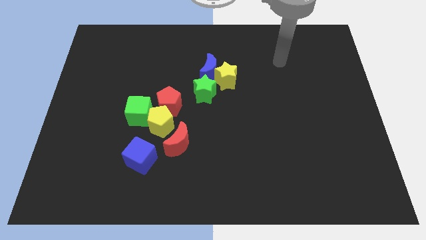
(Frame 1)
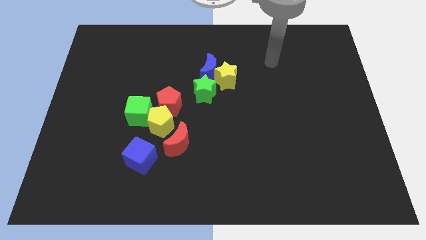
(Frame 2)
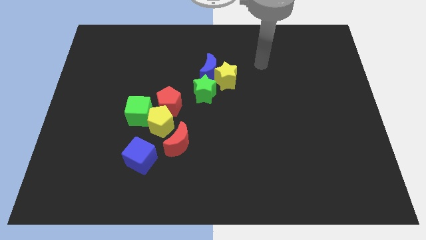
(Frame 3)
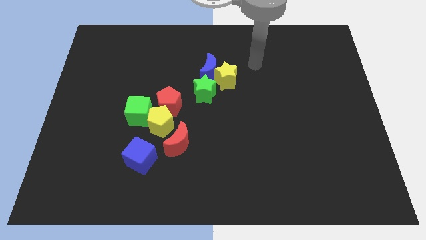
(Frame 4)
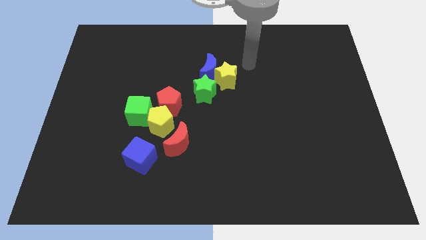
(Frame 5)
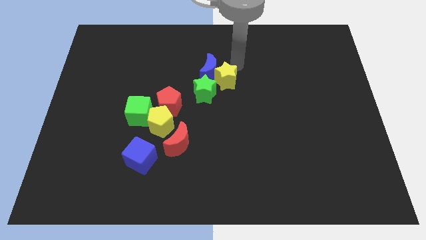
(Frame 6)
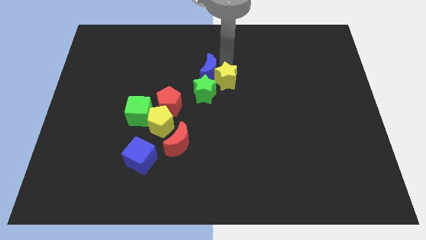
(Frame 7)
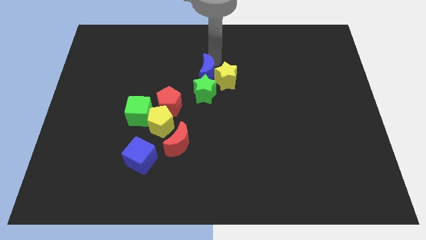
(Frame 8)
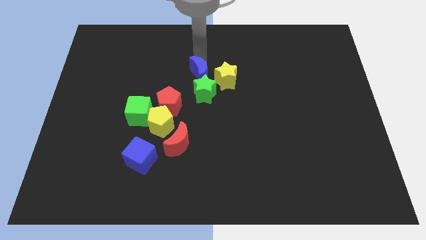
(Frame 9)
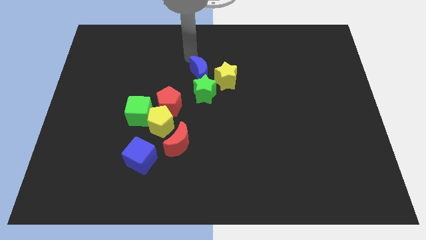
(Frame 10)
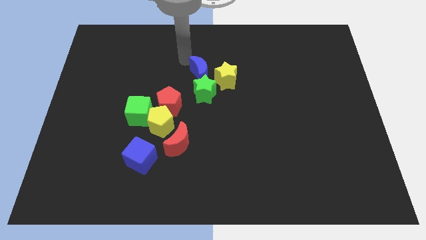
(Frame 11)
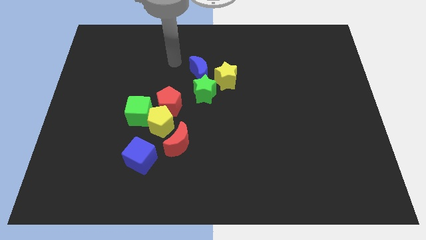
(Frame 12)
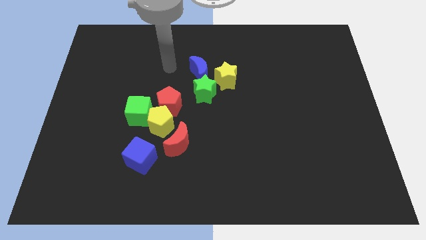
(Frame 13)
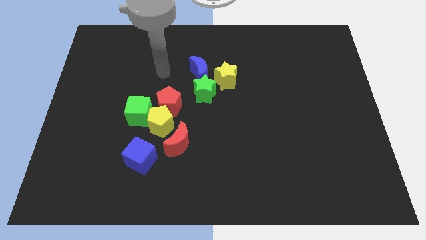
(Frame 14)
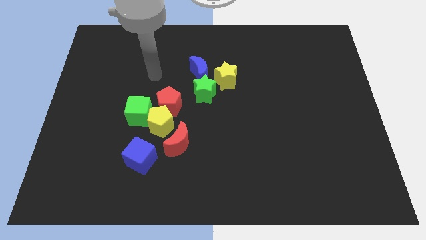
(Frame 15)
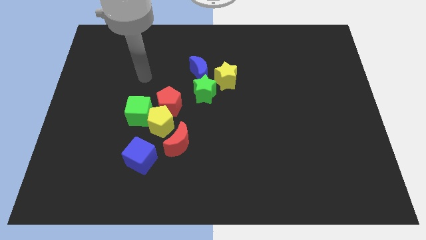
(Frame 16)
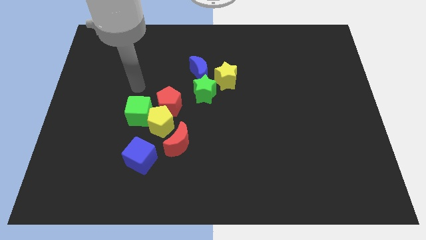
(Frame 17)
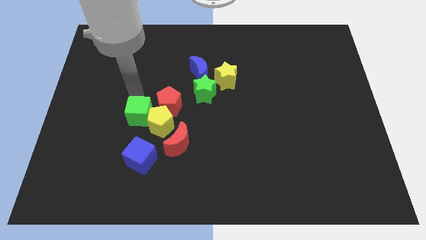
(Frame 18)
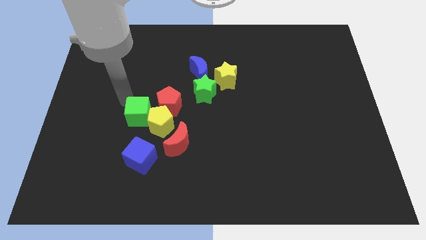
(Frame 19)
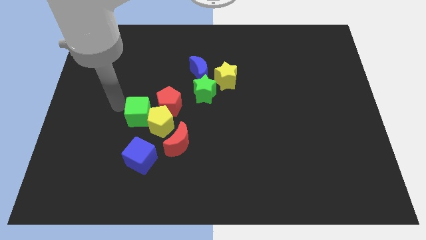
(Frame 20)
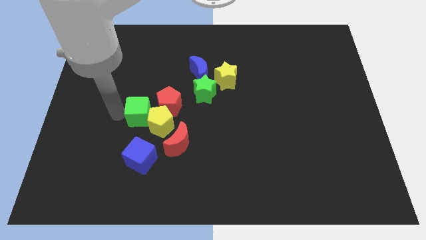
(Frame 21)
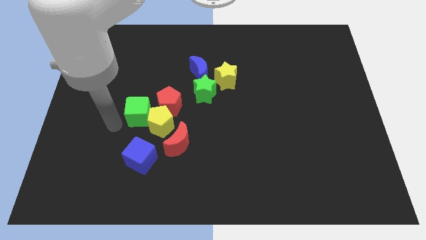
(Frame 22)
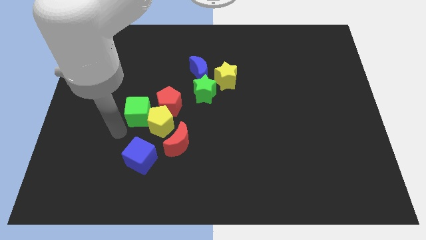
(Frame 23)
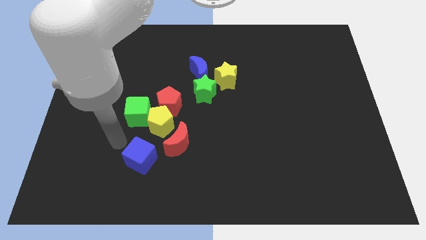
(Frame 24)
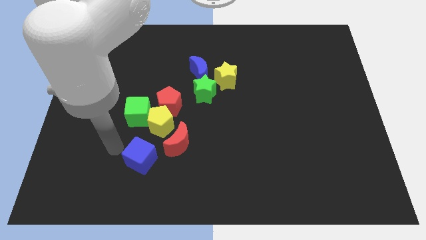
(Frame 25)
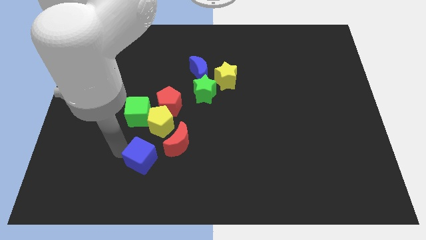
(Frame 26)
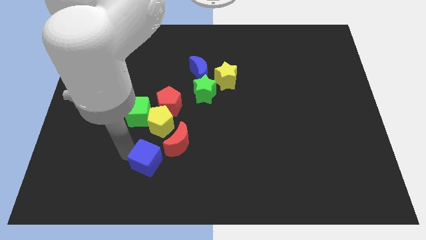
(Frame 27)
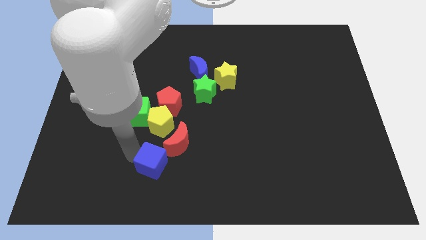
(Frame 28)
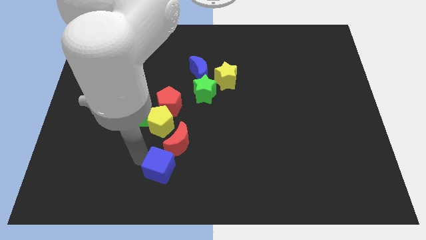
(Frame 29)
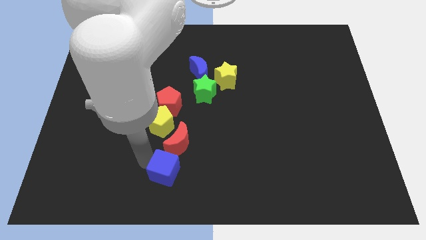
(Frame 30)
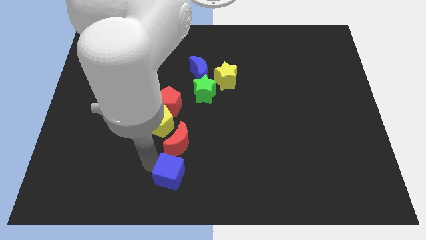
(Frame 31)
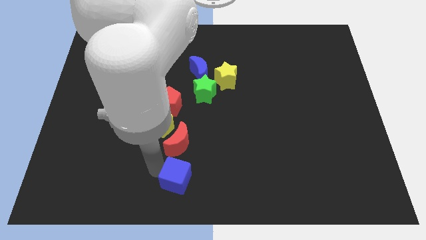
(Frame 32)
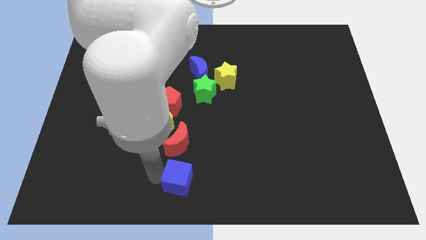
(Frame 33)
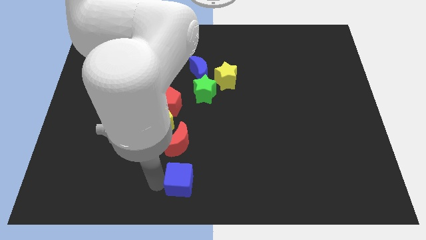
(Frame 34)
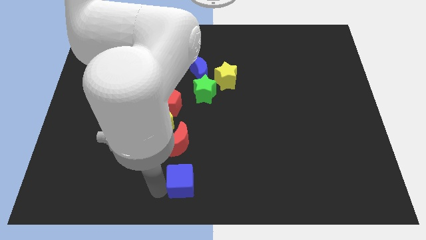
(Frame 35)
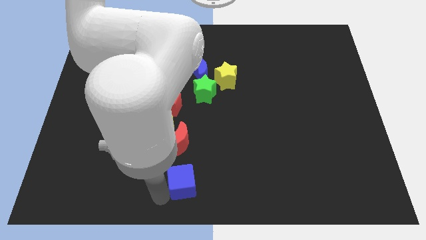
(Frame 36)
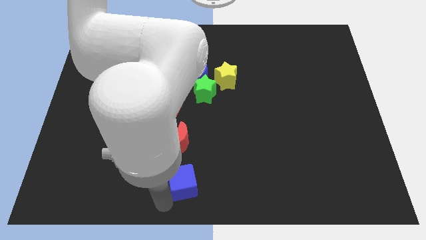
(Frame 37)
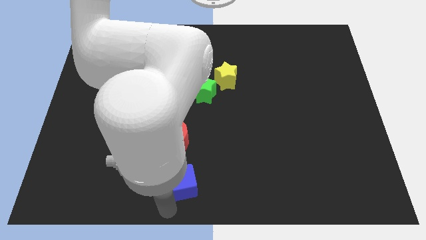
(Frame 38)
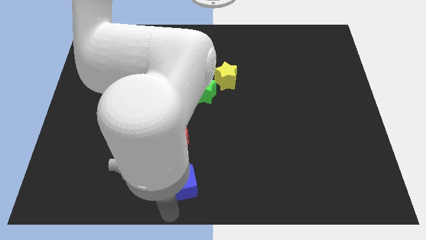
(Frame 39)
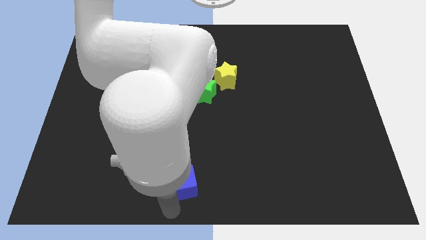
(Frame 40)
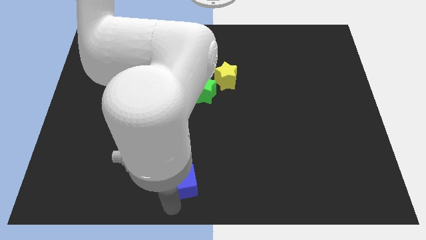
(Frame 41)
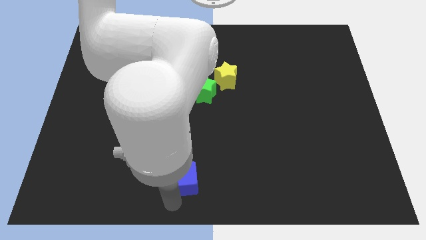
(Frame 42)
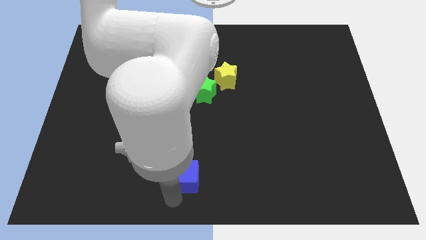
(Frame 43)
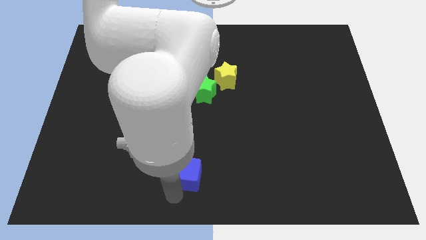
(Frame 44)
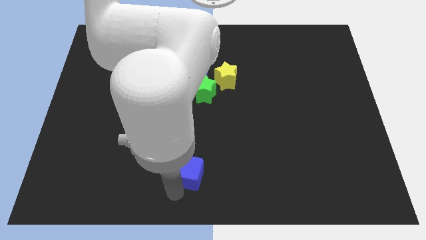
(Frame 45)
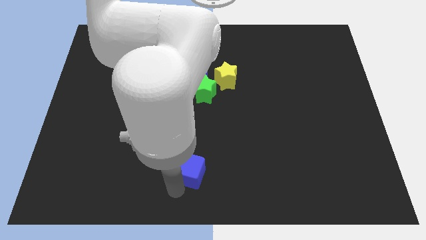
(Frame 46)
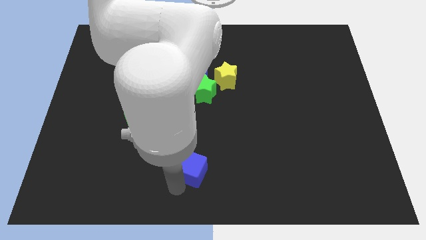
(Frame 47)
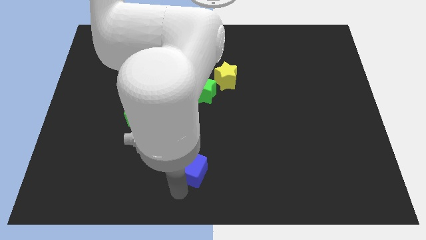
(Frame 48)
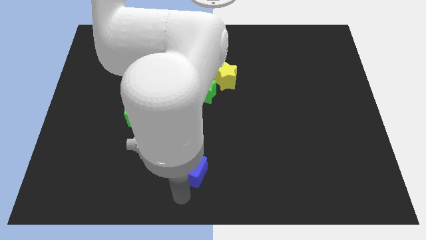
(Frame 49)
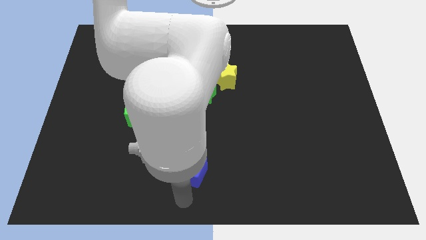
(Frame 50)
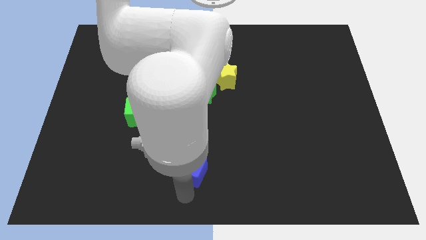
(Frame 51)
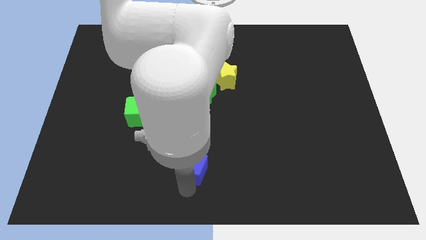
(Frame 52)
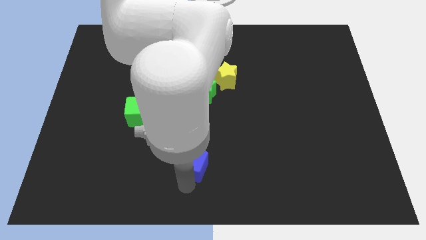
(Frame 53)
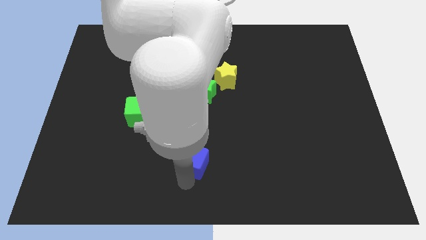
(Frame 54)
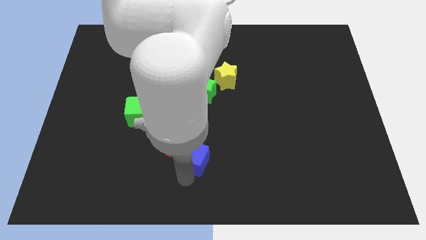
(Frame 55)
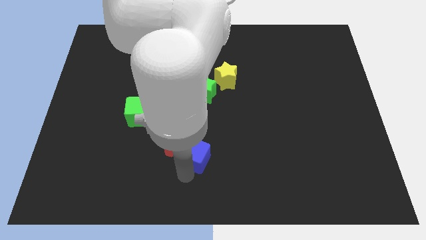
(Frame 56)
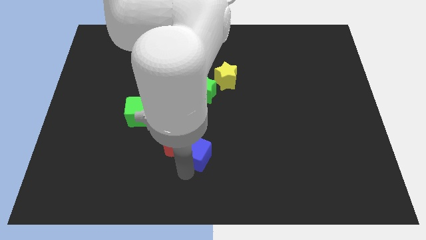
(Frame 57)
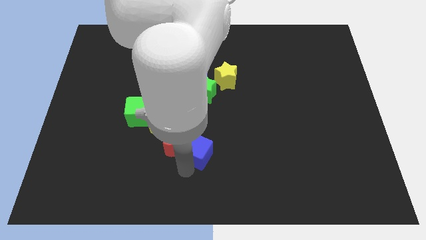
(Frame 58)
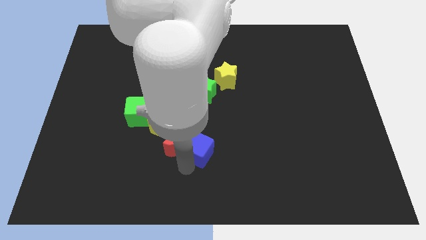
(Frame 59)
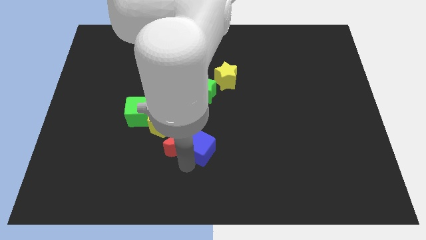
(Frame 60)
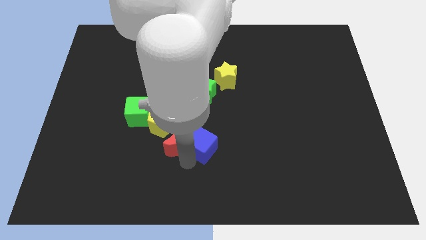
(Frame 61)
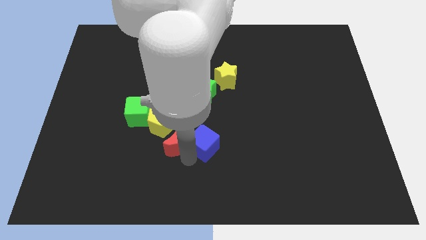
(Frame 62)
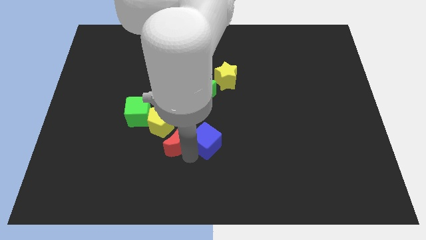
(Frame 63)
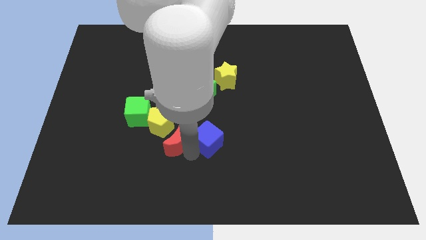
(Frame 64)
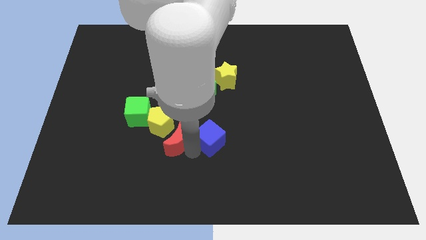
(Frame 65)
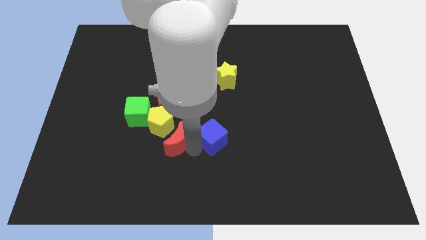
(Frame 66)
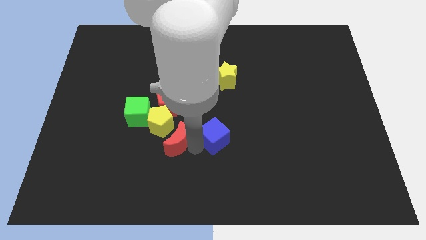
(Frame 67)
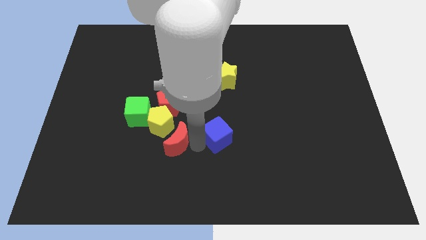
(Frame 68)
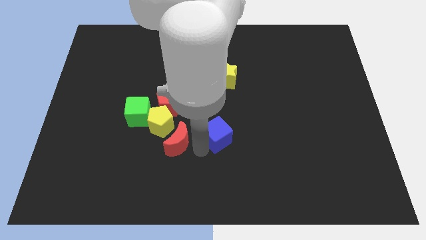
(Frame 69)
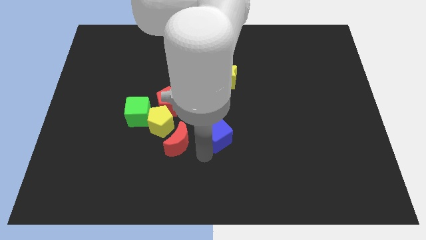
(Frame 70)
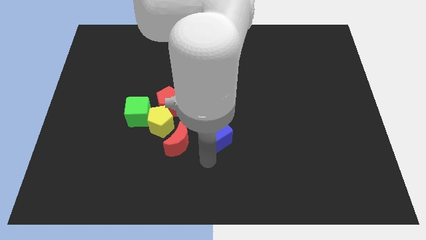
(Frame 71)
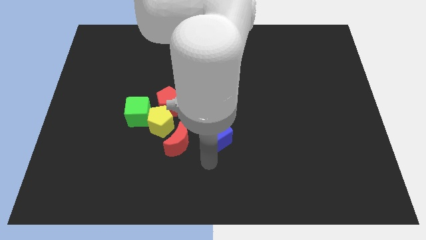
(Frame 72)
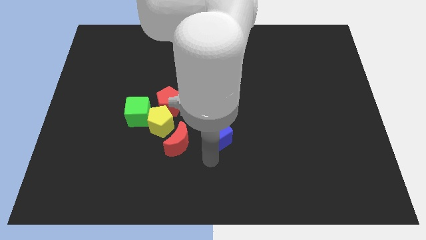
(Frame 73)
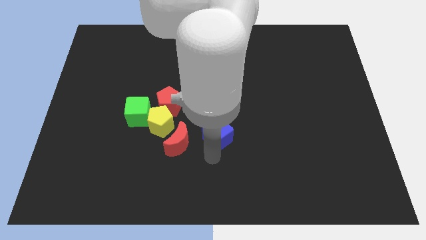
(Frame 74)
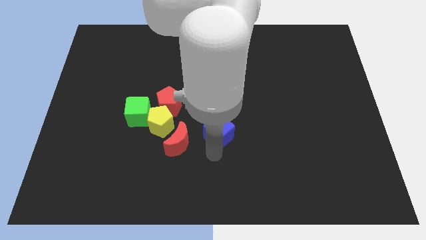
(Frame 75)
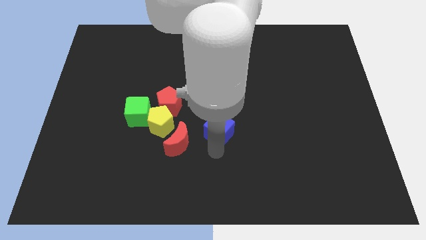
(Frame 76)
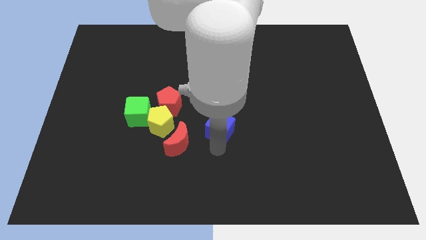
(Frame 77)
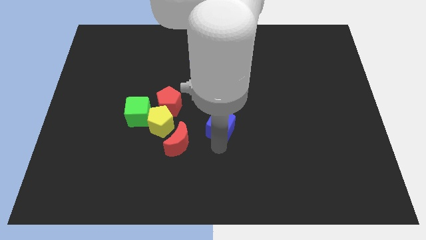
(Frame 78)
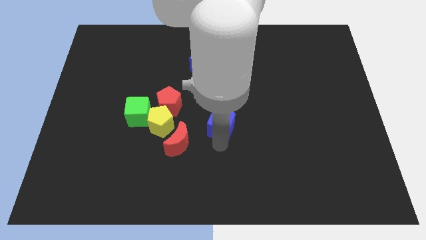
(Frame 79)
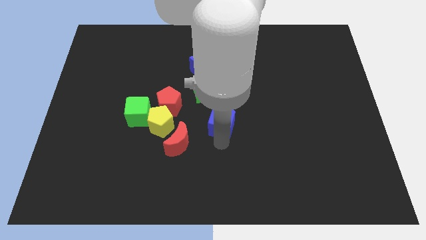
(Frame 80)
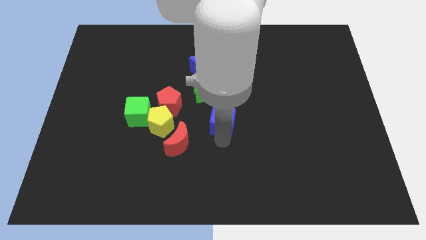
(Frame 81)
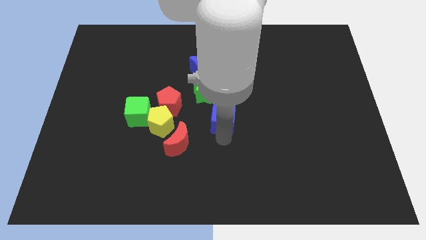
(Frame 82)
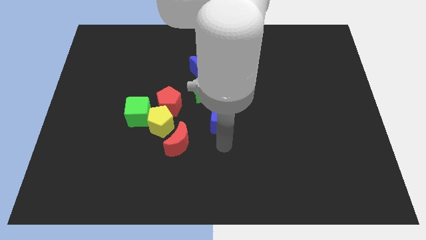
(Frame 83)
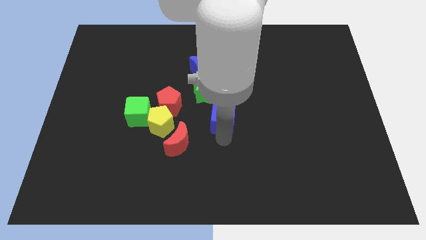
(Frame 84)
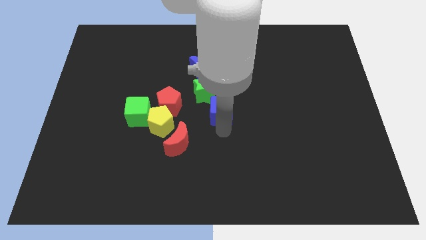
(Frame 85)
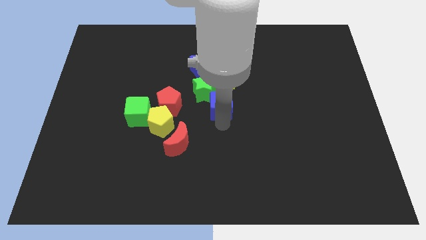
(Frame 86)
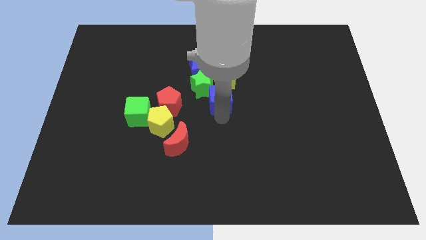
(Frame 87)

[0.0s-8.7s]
put the blue cube to the bottom right of the blue moon
